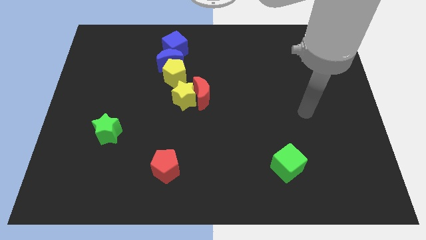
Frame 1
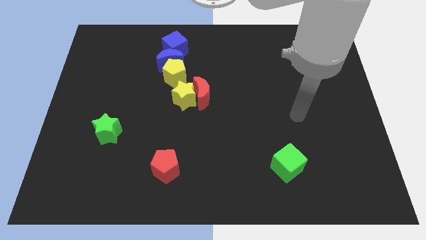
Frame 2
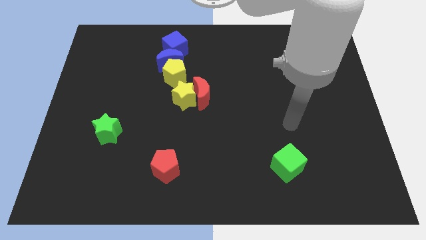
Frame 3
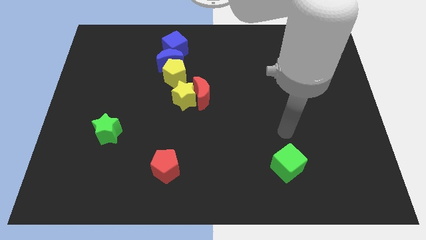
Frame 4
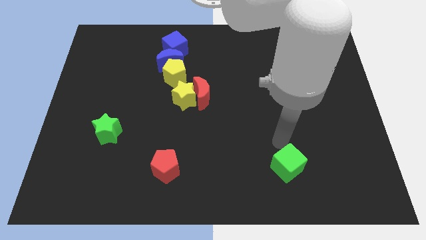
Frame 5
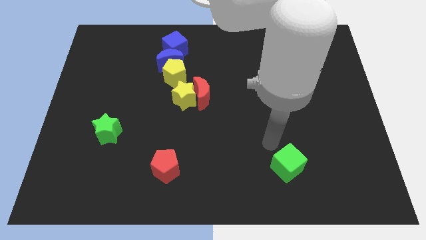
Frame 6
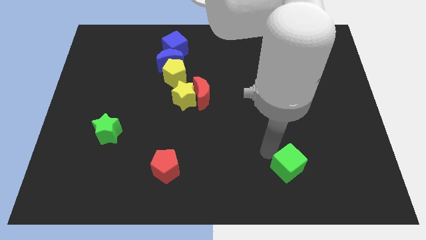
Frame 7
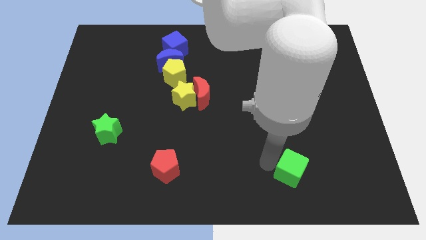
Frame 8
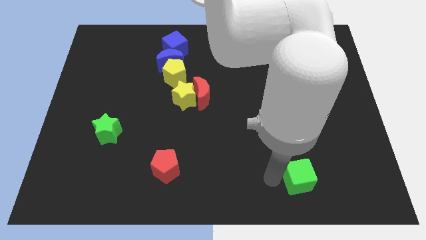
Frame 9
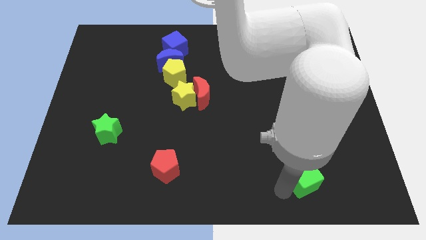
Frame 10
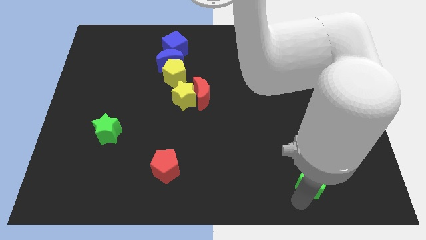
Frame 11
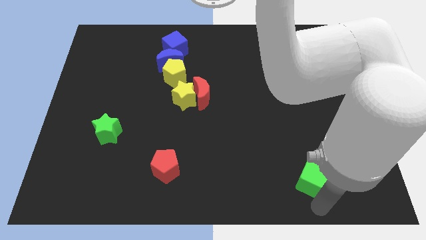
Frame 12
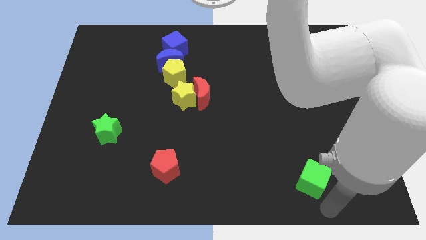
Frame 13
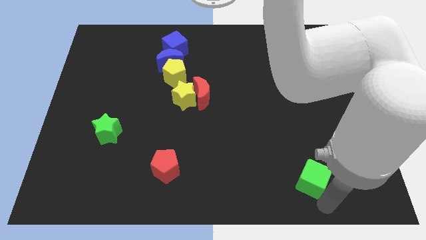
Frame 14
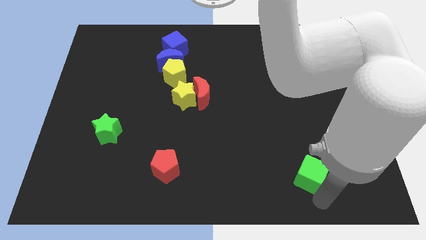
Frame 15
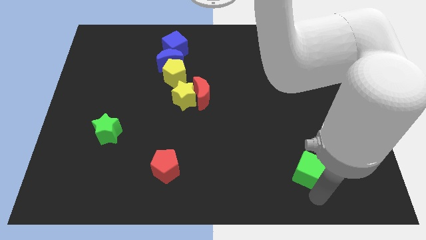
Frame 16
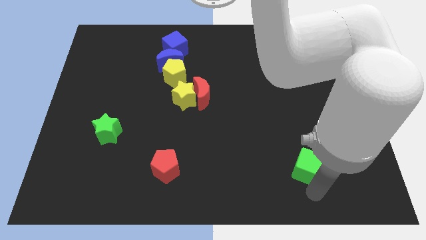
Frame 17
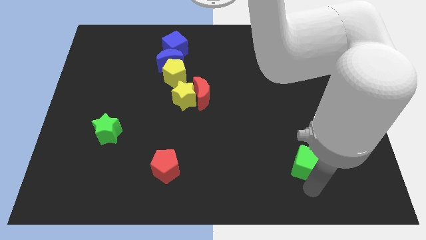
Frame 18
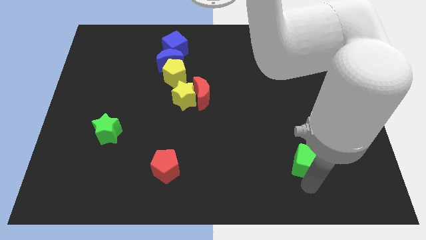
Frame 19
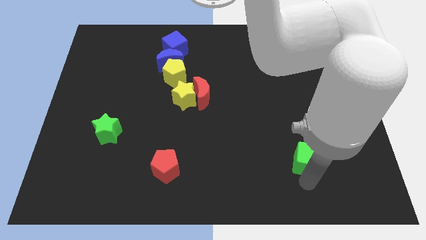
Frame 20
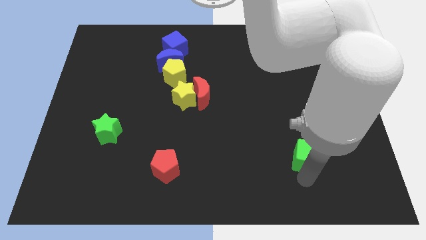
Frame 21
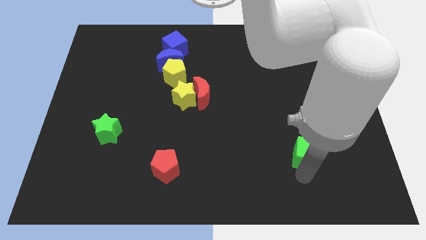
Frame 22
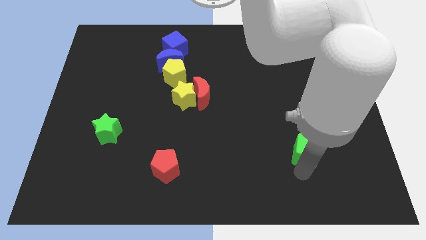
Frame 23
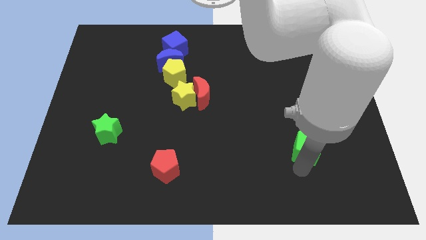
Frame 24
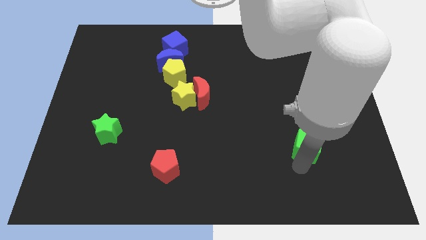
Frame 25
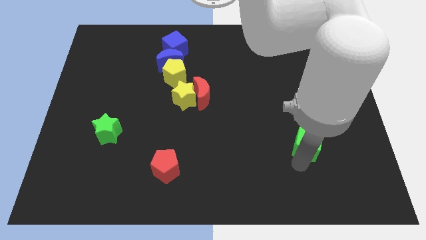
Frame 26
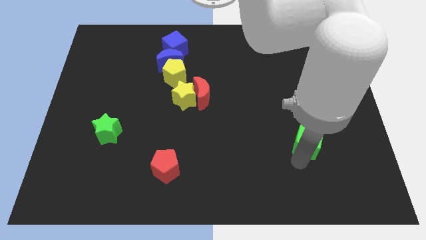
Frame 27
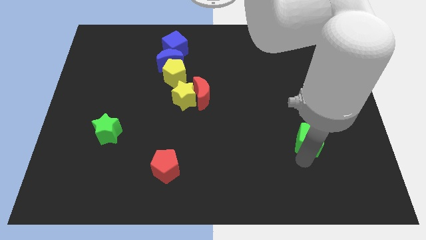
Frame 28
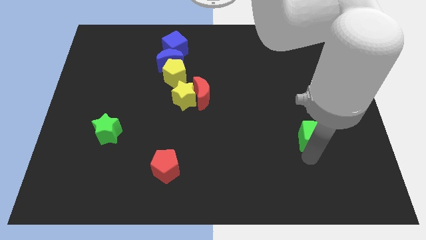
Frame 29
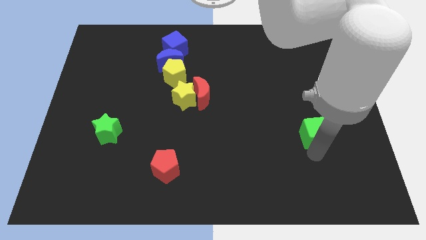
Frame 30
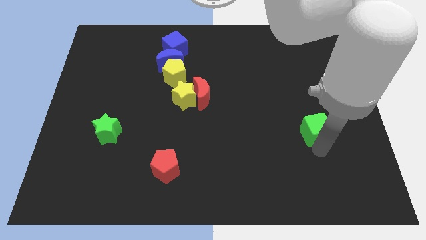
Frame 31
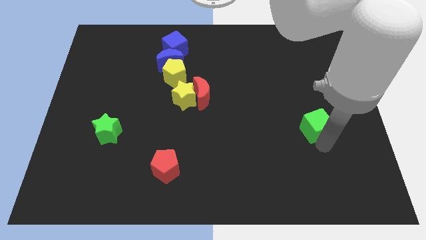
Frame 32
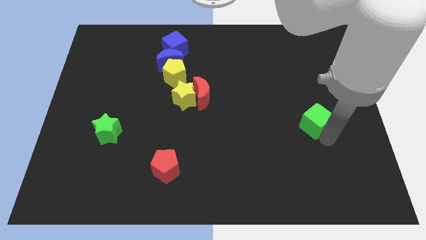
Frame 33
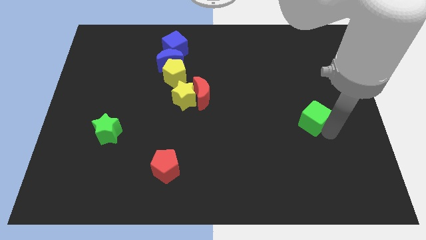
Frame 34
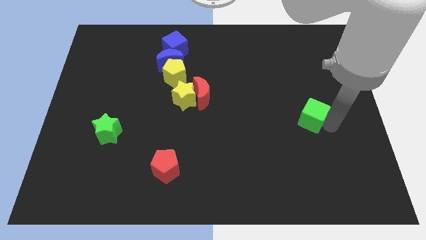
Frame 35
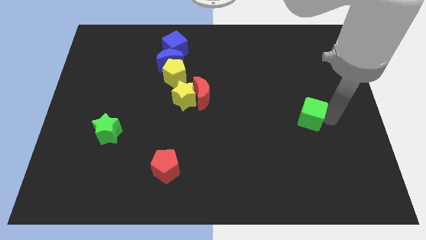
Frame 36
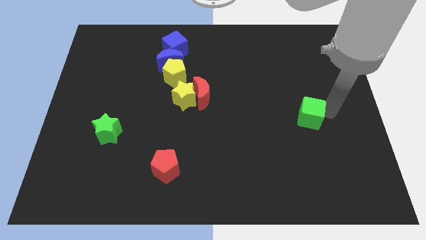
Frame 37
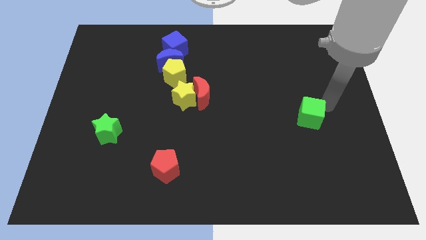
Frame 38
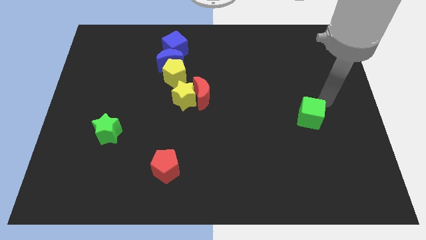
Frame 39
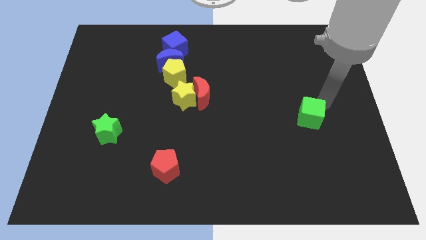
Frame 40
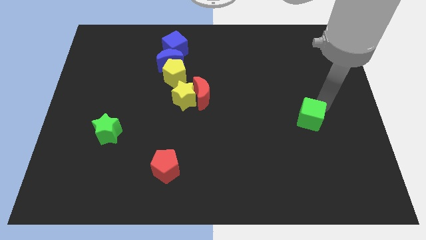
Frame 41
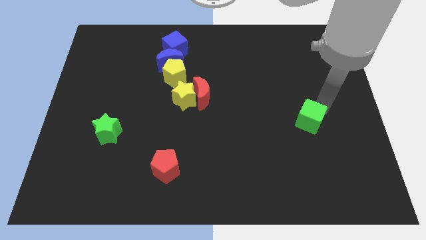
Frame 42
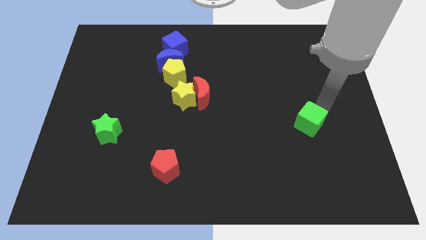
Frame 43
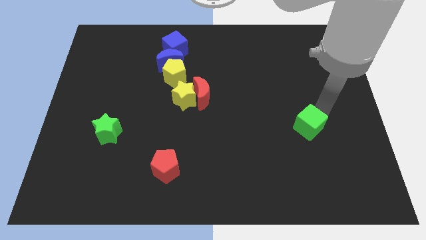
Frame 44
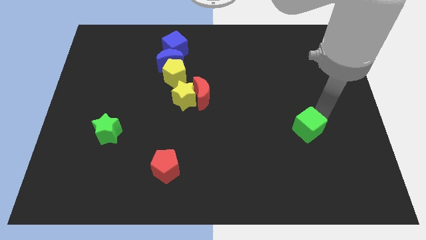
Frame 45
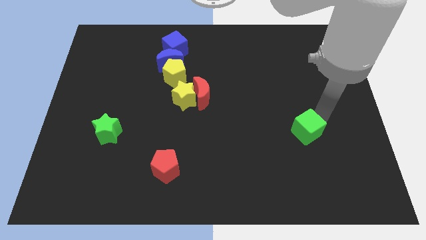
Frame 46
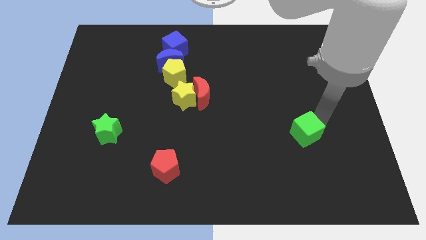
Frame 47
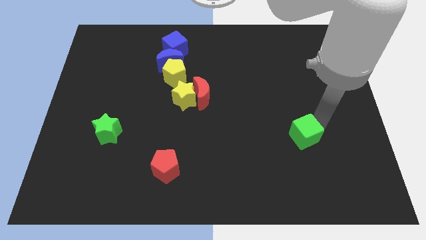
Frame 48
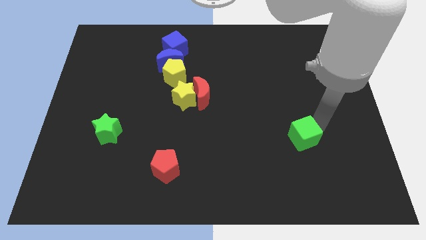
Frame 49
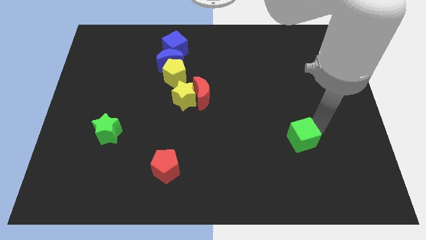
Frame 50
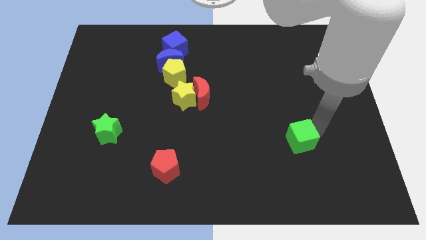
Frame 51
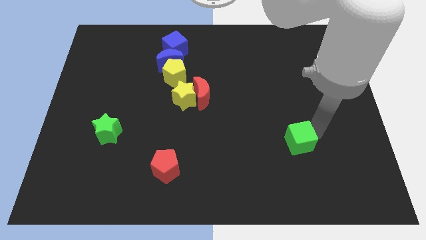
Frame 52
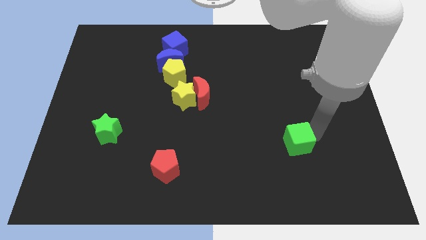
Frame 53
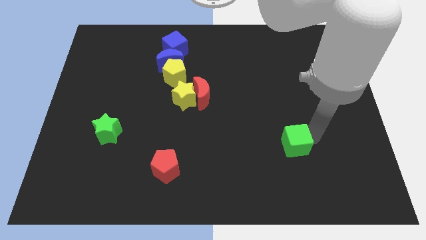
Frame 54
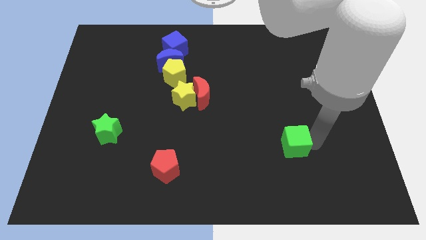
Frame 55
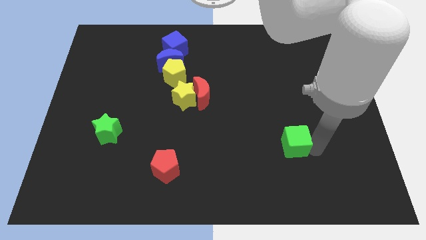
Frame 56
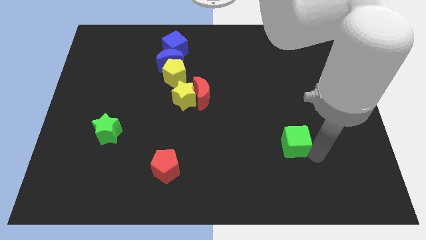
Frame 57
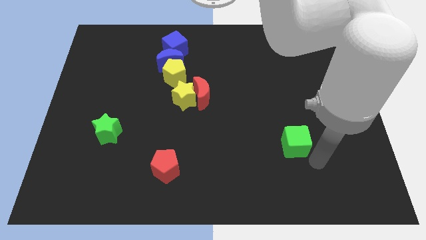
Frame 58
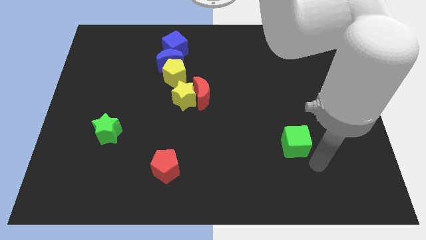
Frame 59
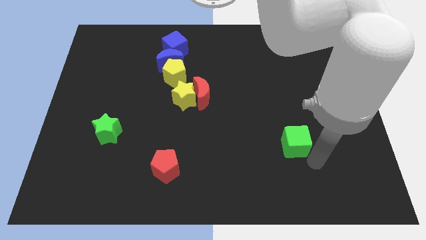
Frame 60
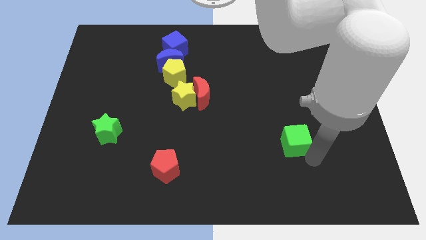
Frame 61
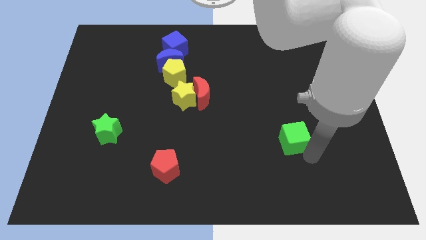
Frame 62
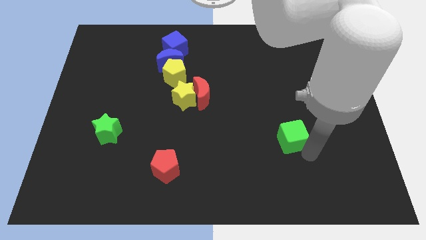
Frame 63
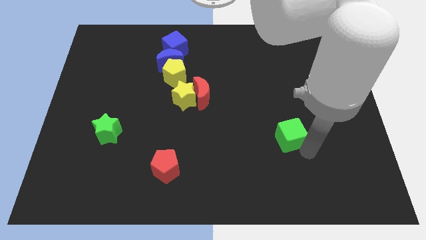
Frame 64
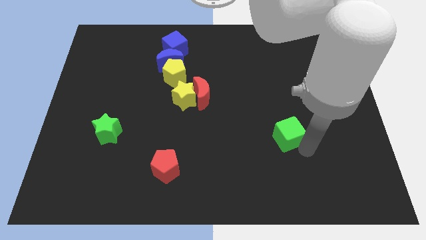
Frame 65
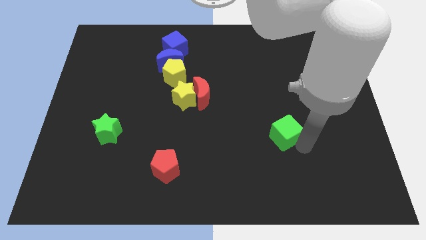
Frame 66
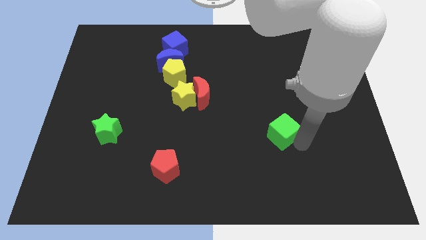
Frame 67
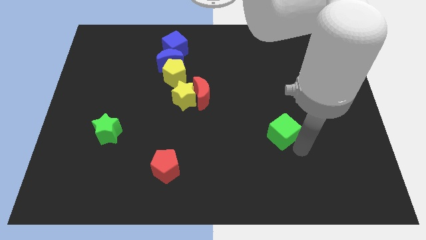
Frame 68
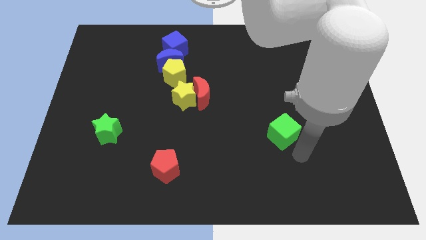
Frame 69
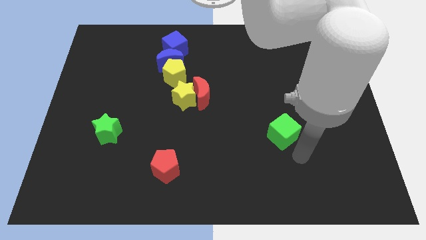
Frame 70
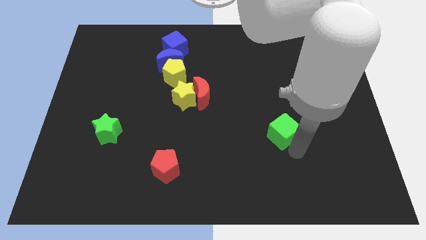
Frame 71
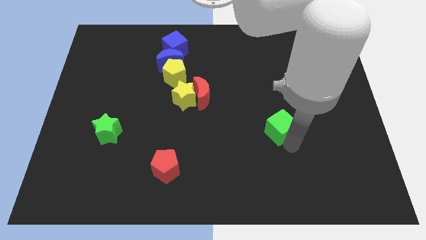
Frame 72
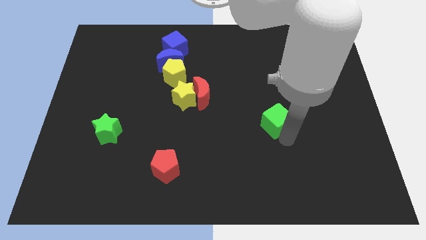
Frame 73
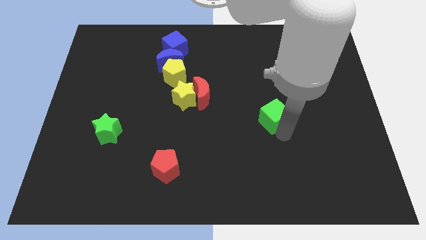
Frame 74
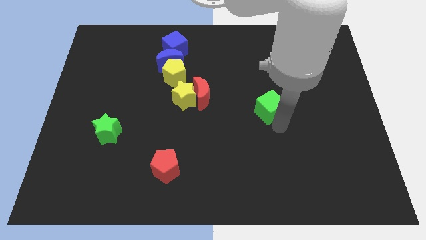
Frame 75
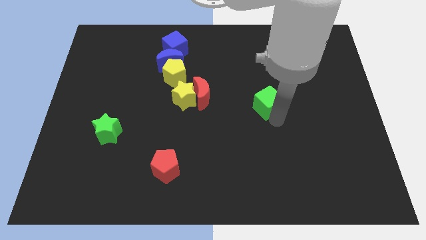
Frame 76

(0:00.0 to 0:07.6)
move the green cube just right of the red moon
